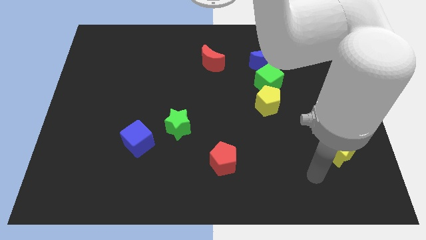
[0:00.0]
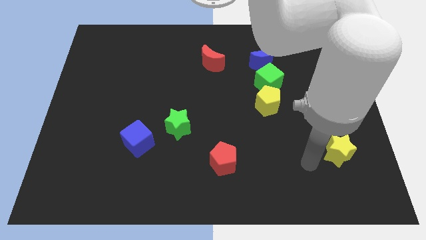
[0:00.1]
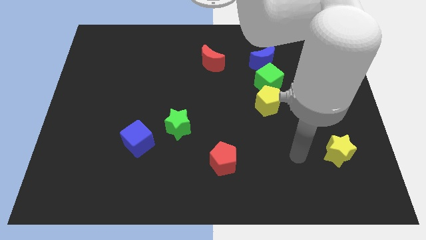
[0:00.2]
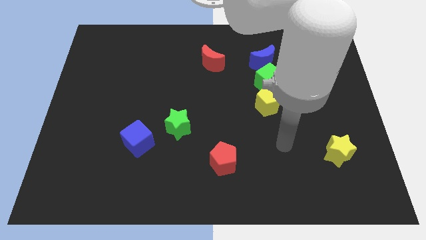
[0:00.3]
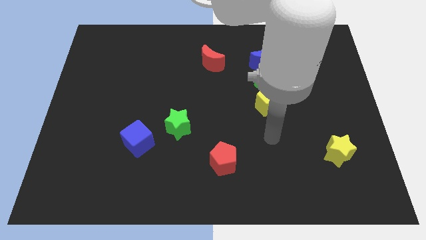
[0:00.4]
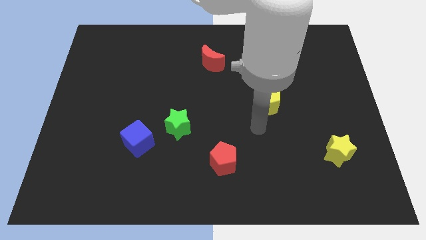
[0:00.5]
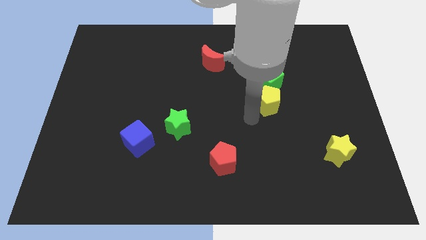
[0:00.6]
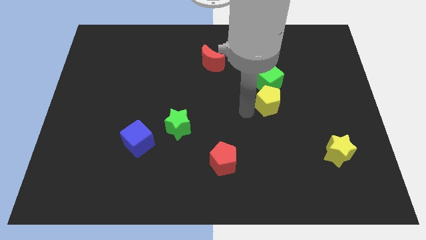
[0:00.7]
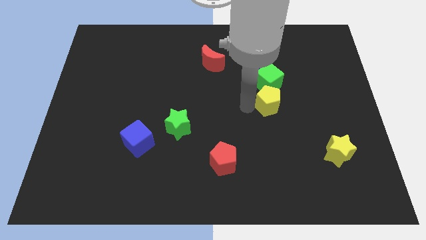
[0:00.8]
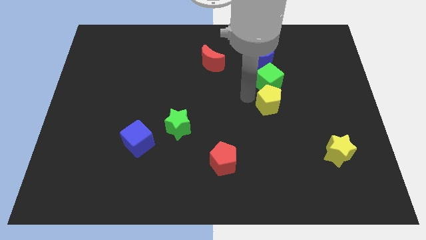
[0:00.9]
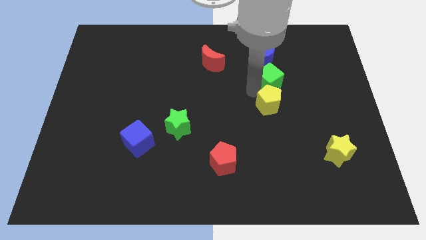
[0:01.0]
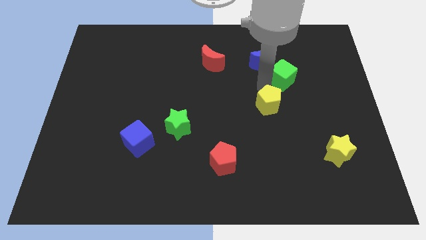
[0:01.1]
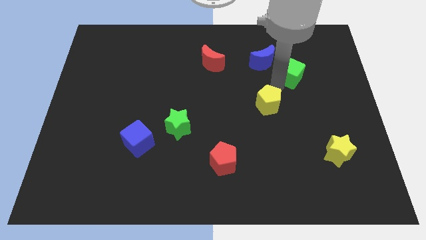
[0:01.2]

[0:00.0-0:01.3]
separate the yellow pentagon from the green cube

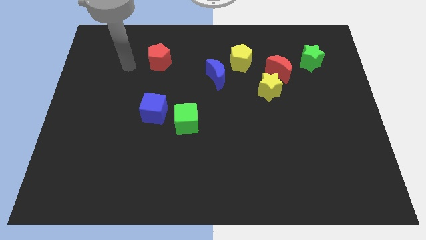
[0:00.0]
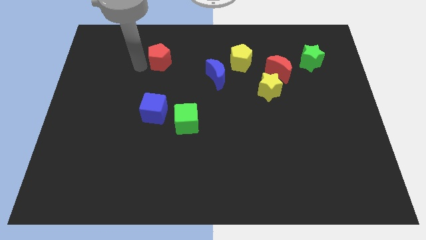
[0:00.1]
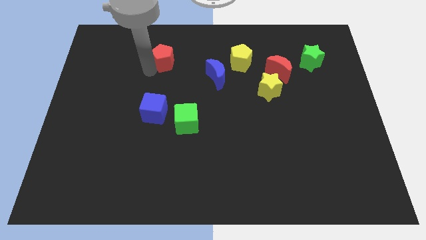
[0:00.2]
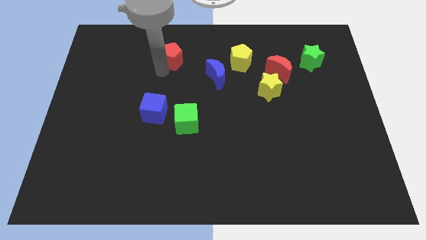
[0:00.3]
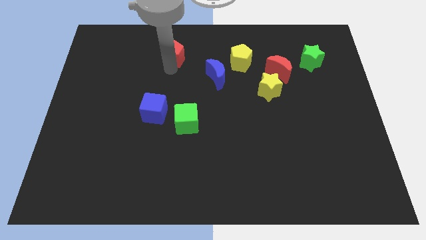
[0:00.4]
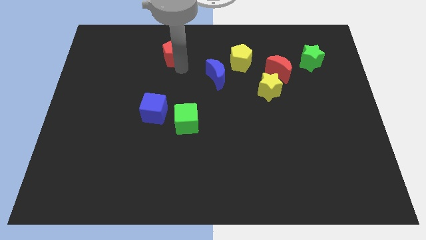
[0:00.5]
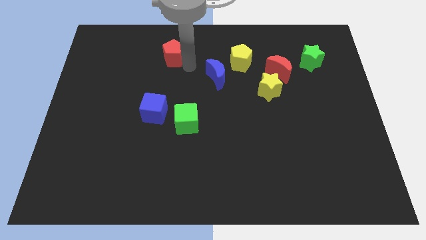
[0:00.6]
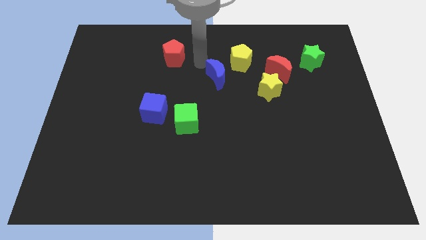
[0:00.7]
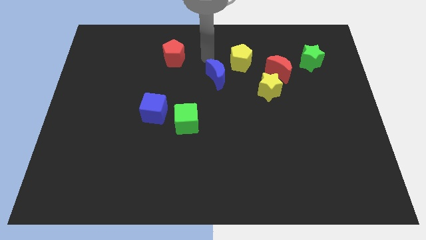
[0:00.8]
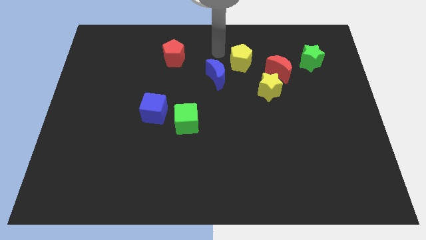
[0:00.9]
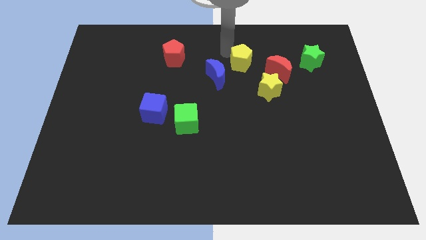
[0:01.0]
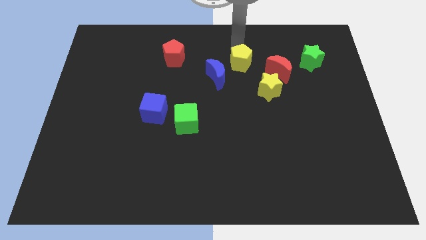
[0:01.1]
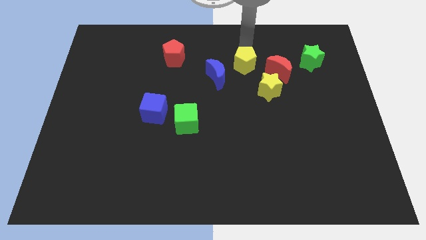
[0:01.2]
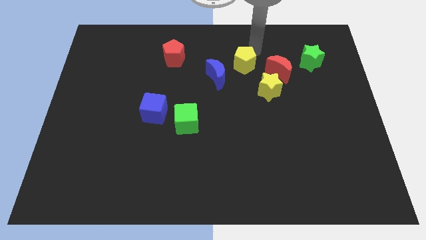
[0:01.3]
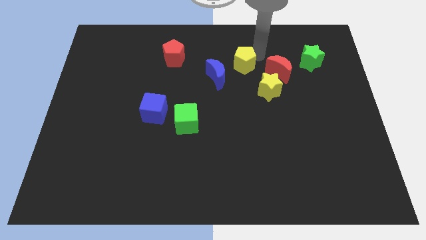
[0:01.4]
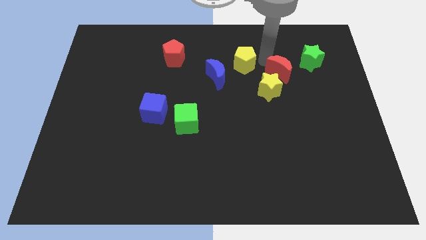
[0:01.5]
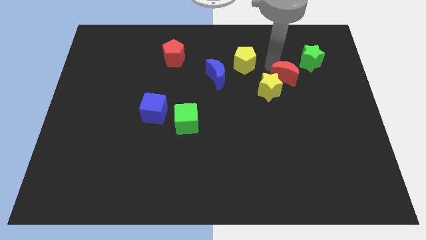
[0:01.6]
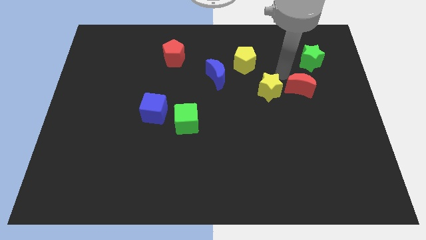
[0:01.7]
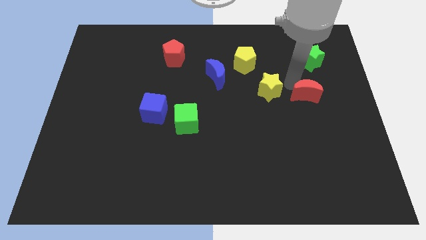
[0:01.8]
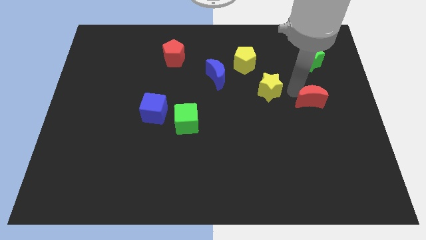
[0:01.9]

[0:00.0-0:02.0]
pull the yellow star apart from the red moon

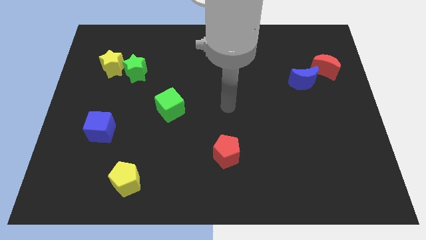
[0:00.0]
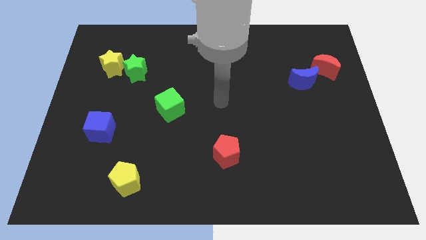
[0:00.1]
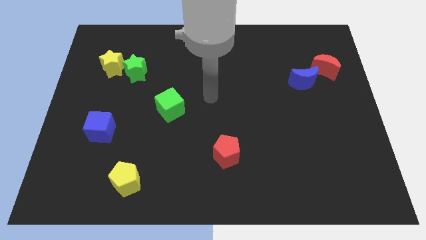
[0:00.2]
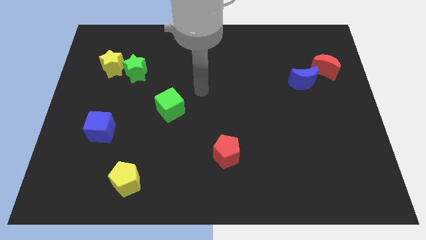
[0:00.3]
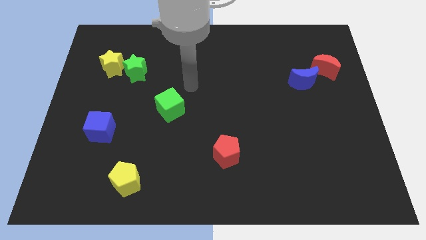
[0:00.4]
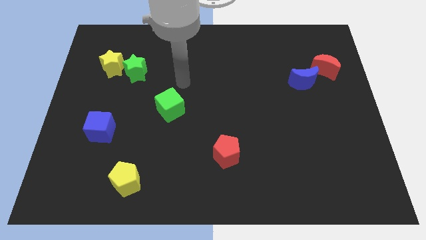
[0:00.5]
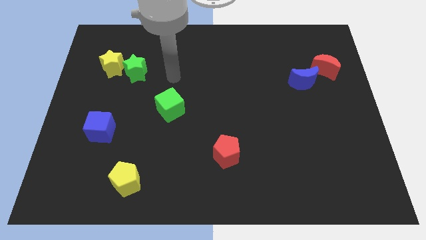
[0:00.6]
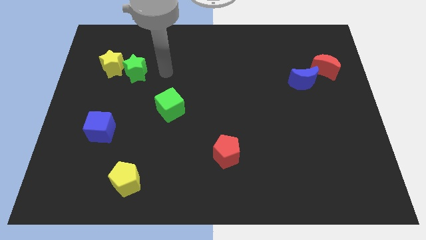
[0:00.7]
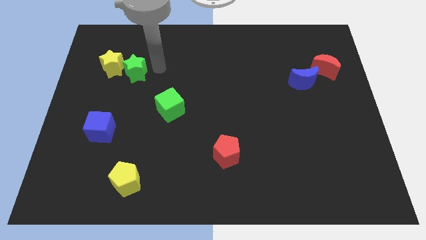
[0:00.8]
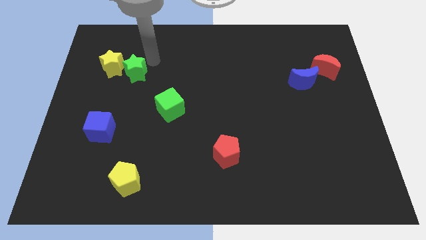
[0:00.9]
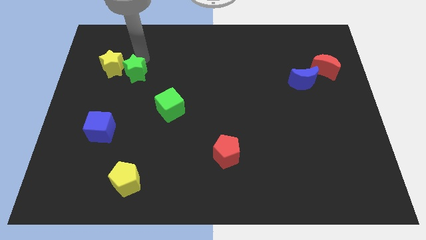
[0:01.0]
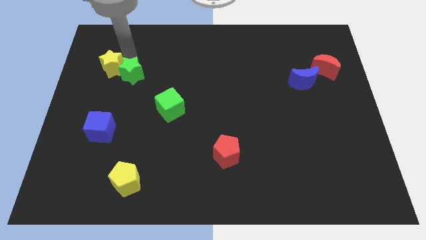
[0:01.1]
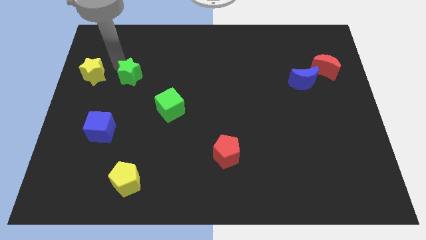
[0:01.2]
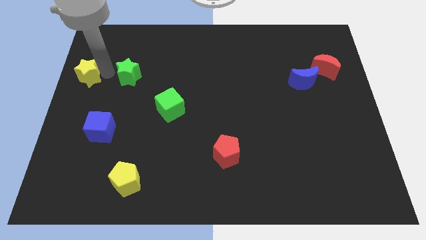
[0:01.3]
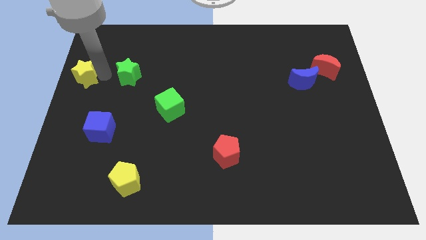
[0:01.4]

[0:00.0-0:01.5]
move the green star away from the yellow star

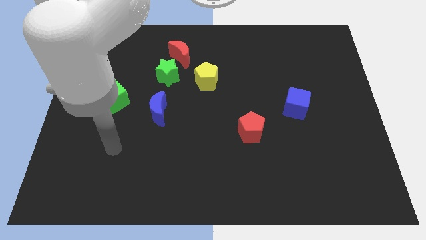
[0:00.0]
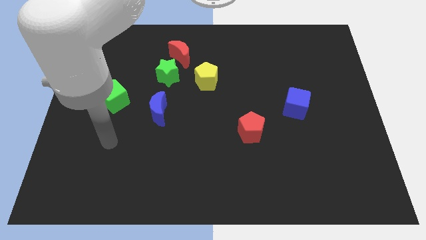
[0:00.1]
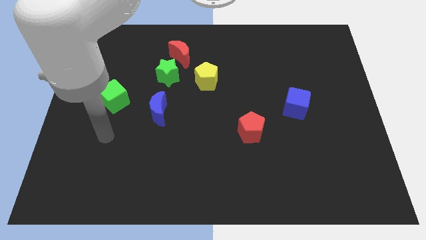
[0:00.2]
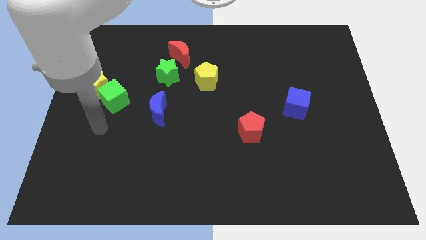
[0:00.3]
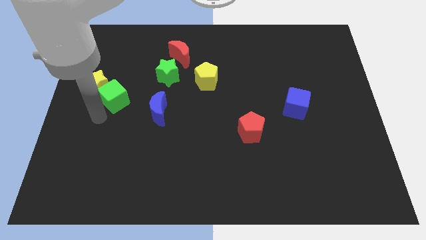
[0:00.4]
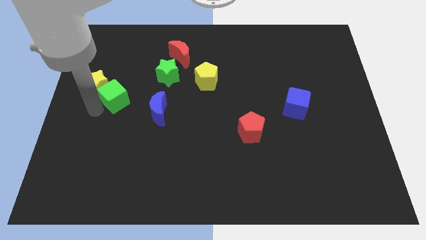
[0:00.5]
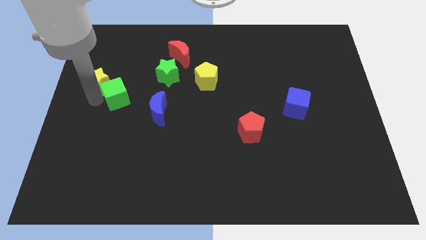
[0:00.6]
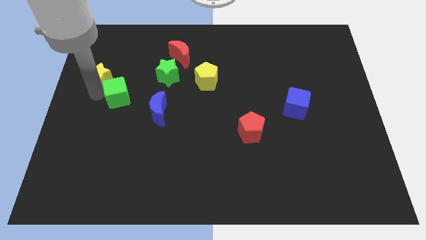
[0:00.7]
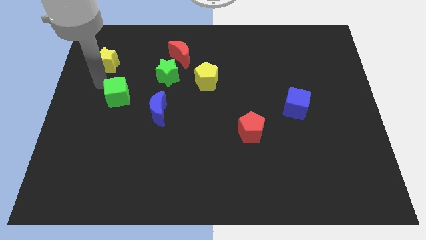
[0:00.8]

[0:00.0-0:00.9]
separate the green cube from the yellow star

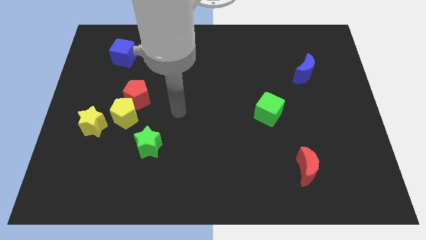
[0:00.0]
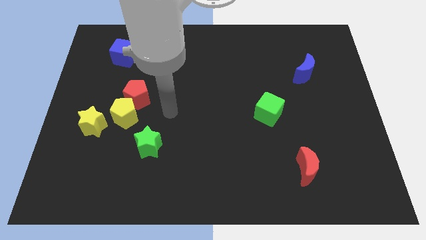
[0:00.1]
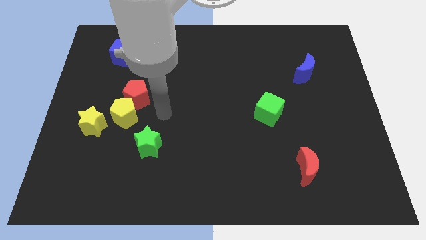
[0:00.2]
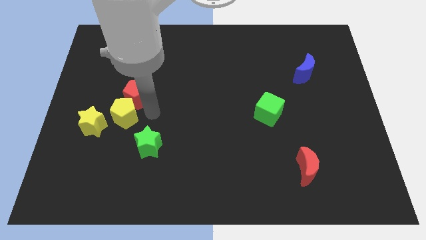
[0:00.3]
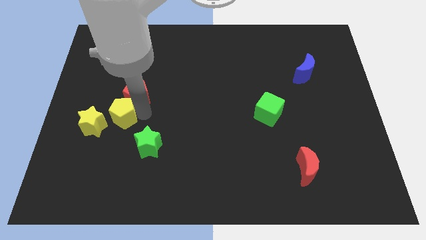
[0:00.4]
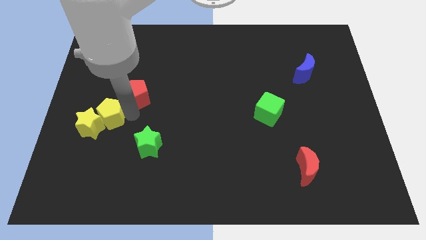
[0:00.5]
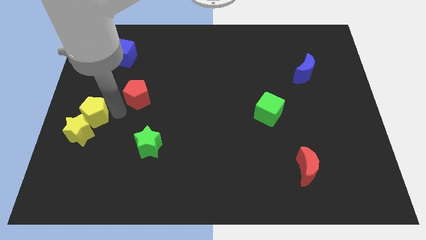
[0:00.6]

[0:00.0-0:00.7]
separate the red pentagon from the yellow pentagon

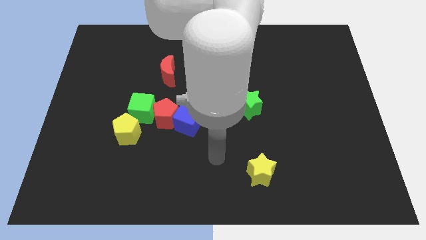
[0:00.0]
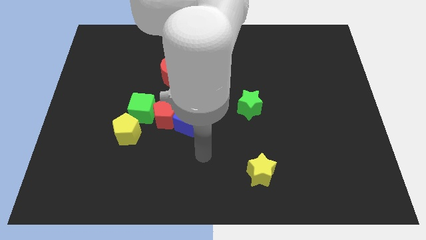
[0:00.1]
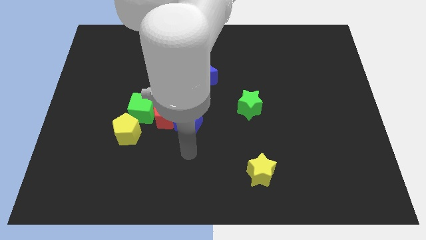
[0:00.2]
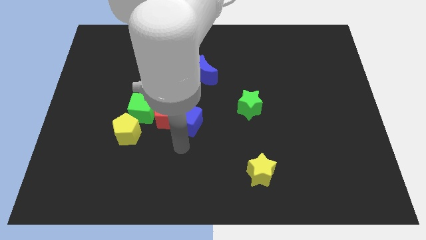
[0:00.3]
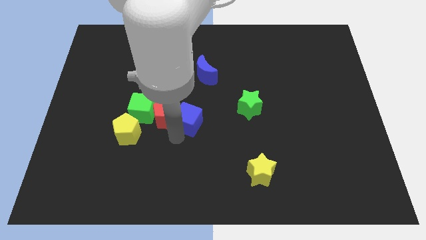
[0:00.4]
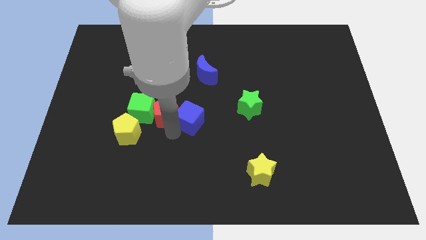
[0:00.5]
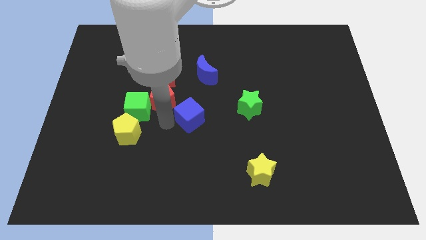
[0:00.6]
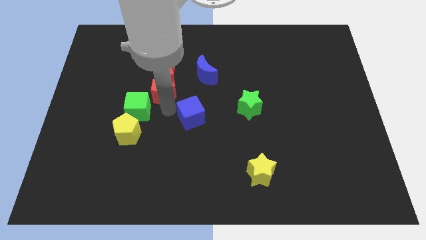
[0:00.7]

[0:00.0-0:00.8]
pull the blue cube apart from the red pentagon

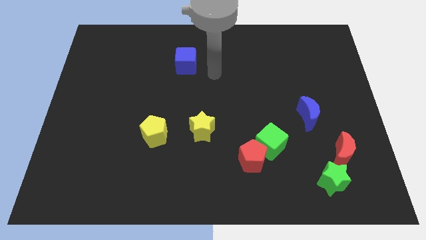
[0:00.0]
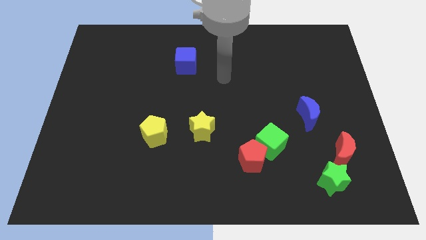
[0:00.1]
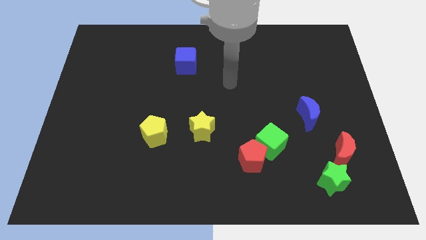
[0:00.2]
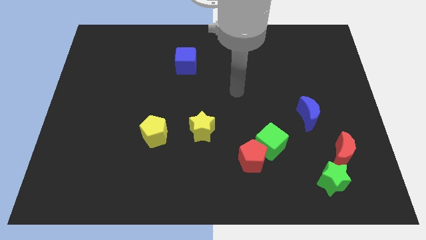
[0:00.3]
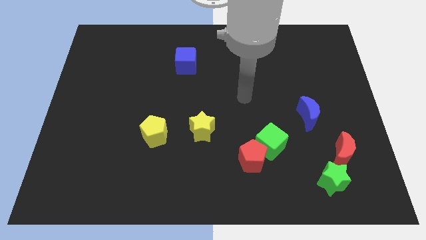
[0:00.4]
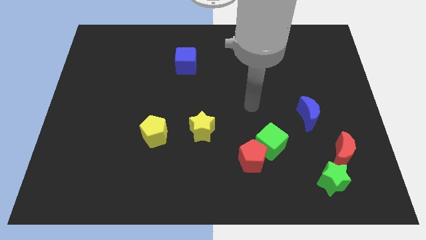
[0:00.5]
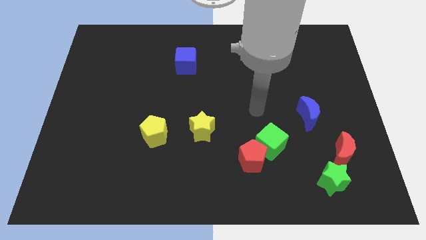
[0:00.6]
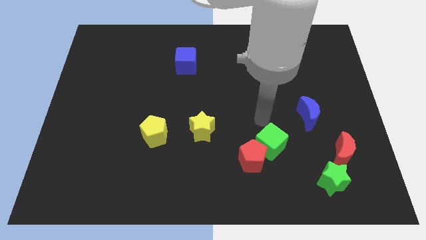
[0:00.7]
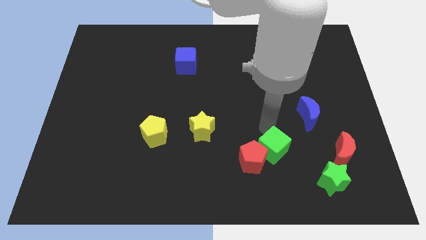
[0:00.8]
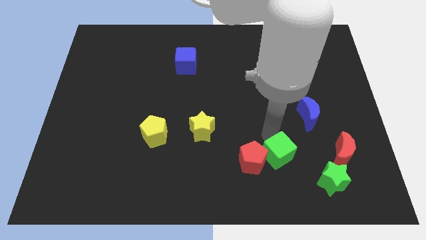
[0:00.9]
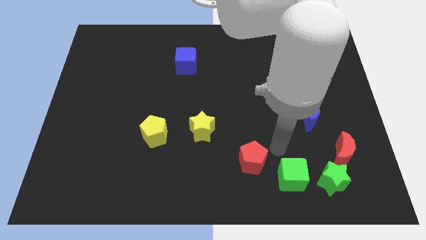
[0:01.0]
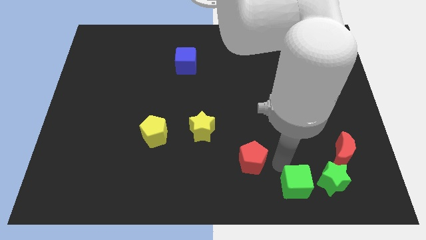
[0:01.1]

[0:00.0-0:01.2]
move the red pentagon away from the green cube

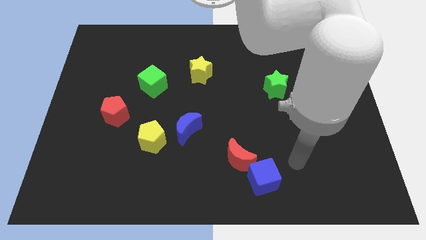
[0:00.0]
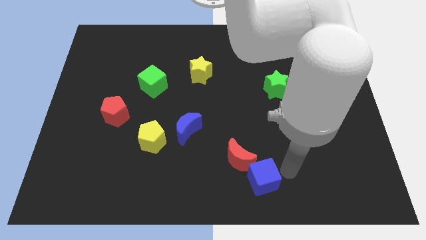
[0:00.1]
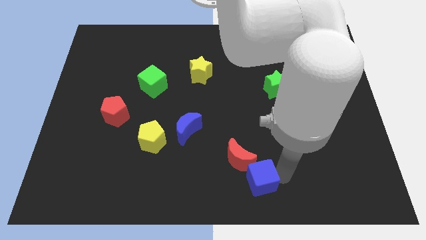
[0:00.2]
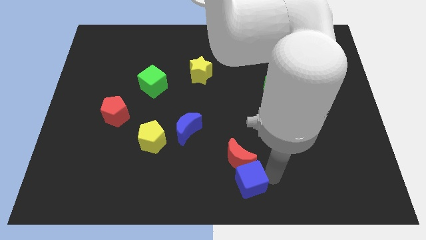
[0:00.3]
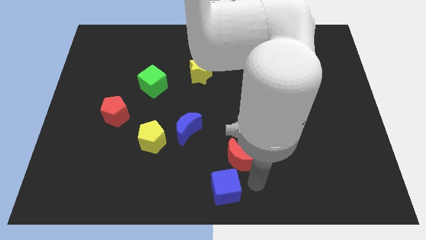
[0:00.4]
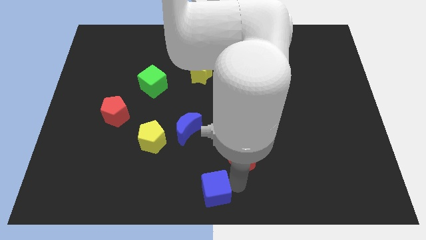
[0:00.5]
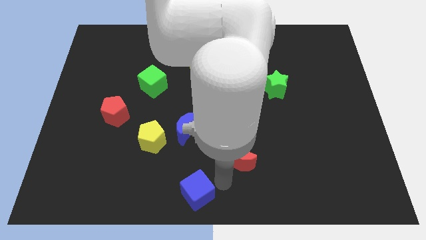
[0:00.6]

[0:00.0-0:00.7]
pull the red moon apart from the blue cube

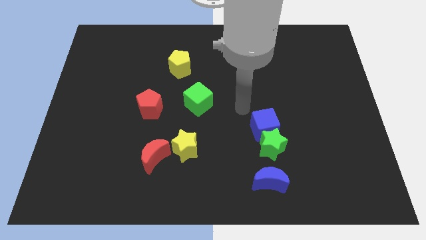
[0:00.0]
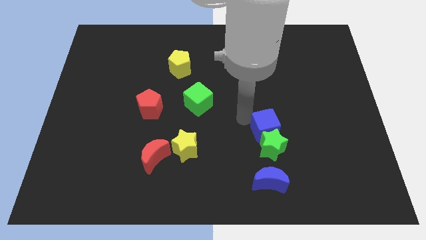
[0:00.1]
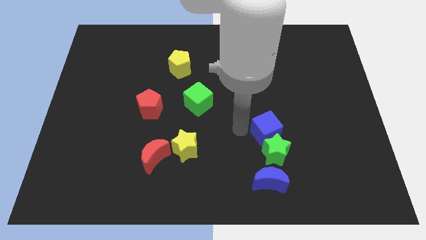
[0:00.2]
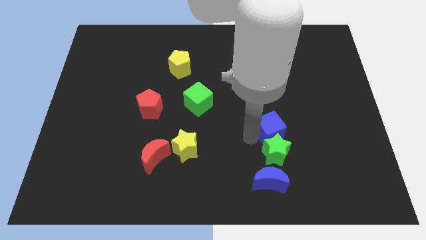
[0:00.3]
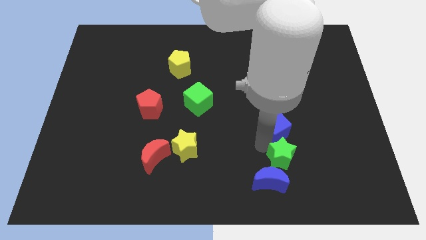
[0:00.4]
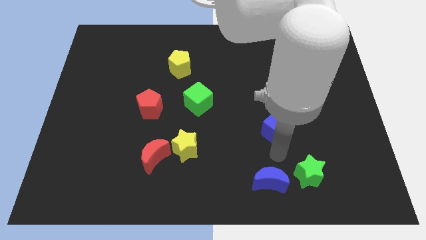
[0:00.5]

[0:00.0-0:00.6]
move the blue cube away from the green star
